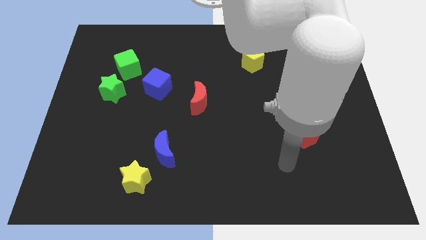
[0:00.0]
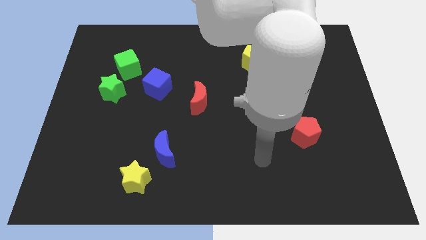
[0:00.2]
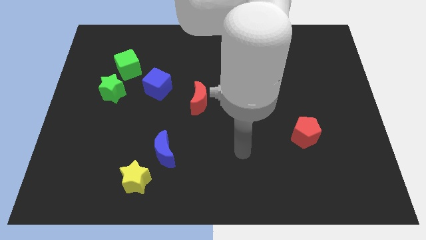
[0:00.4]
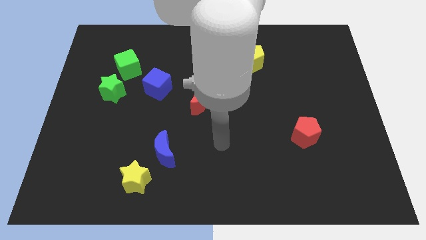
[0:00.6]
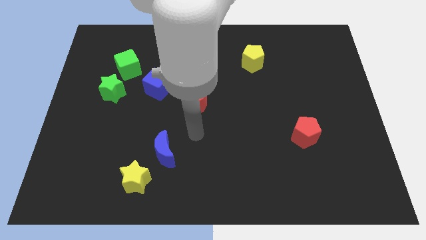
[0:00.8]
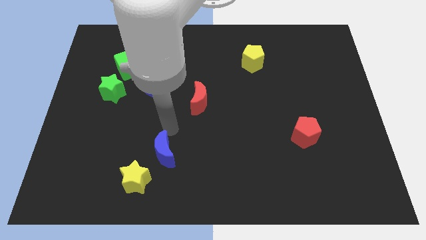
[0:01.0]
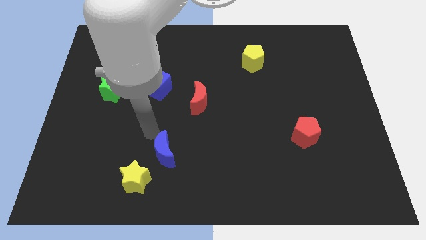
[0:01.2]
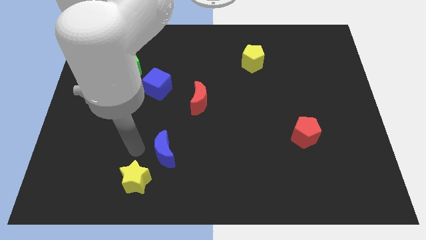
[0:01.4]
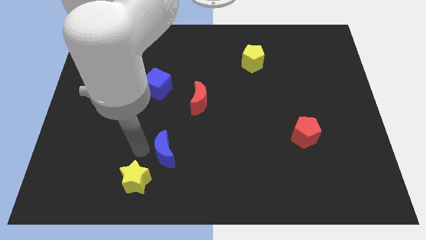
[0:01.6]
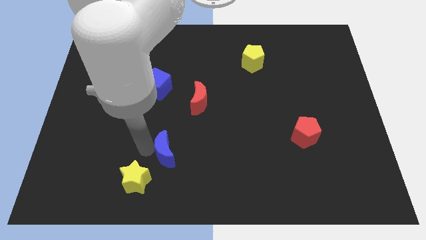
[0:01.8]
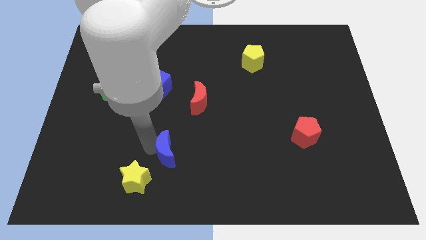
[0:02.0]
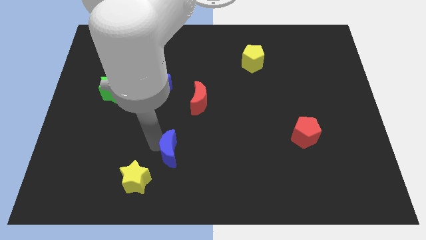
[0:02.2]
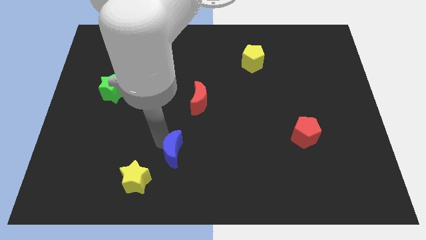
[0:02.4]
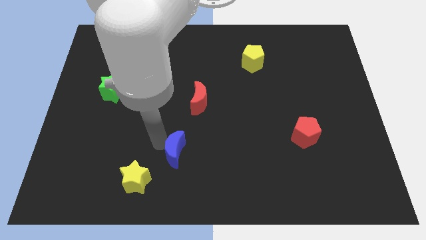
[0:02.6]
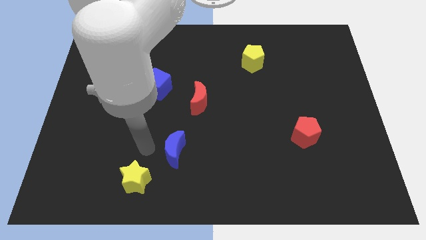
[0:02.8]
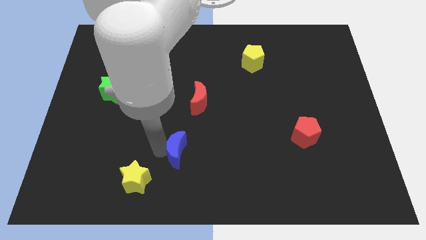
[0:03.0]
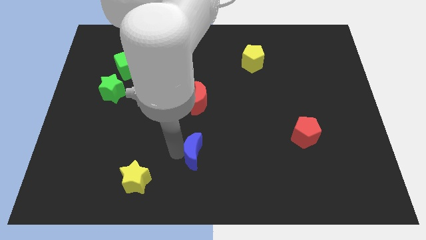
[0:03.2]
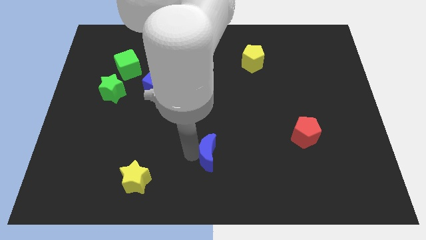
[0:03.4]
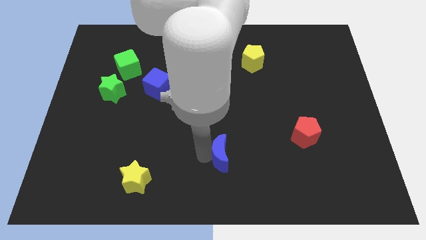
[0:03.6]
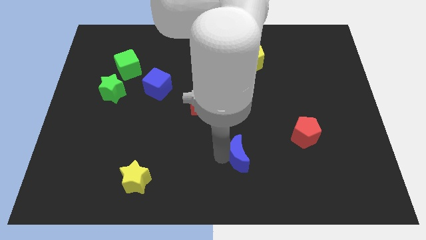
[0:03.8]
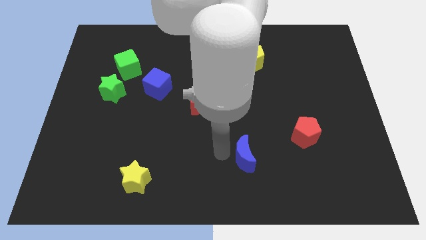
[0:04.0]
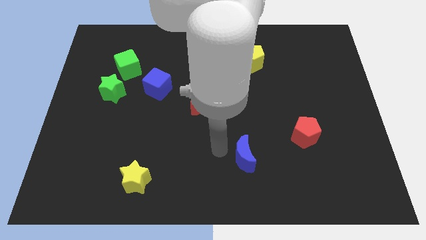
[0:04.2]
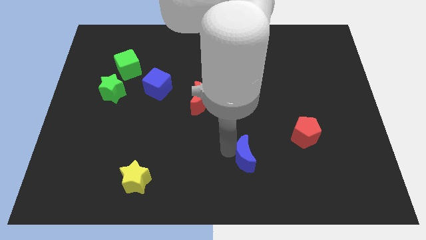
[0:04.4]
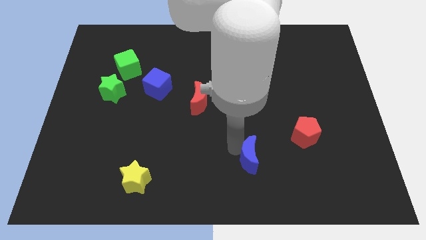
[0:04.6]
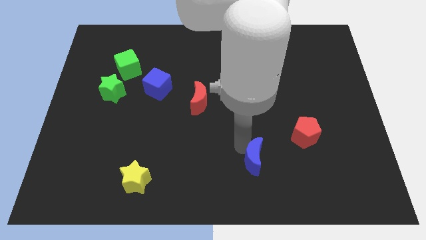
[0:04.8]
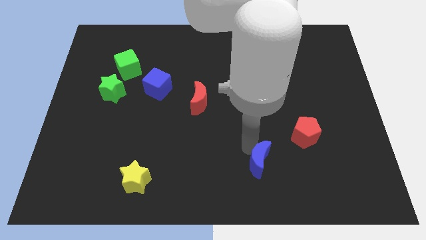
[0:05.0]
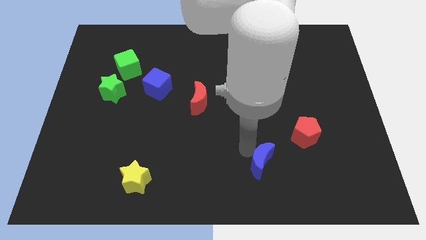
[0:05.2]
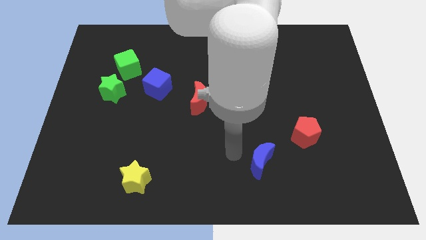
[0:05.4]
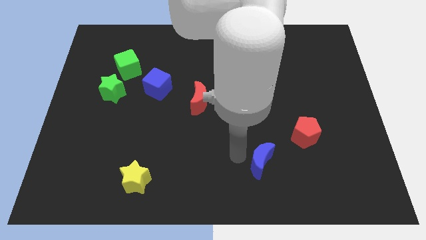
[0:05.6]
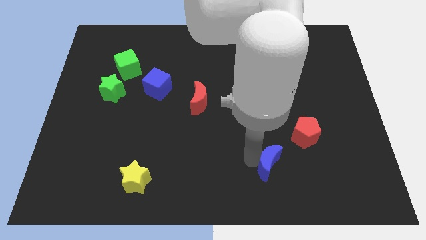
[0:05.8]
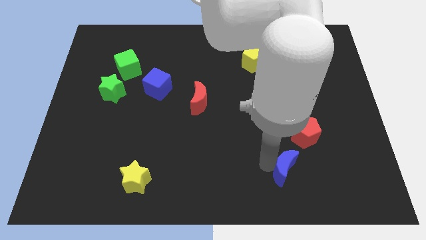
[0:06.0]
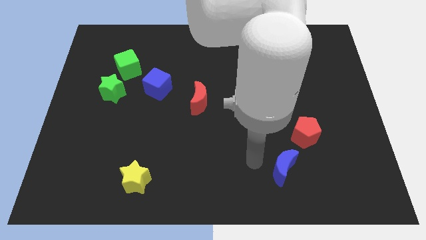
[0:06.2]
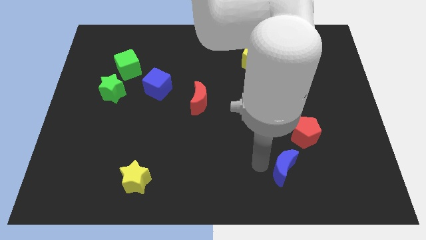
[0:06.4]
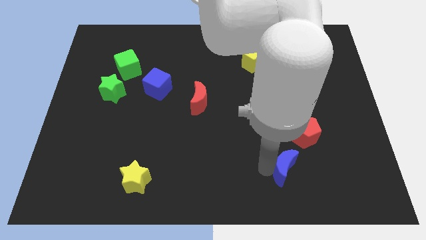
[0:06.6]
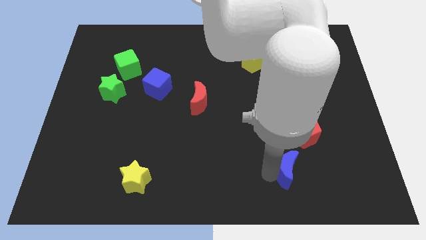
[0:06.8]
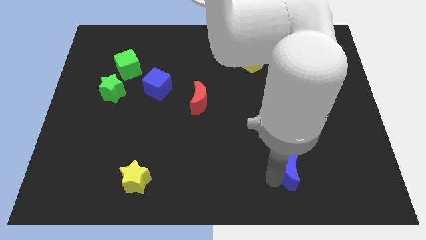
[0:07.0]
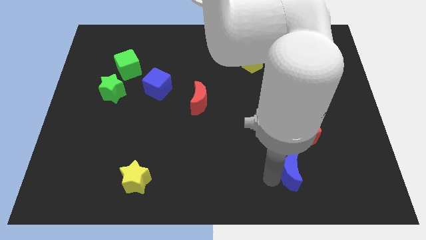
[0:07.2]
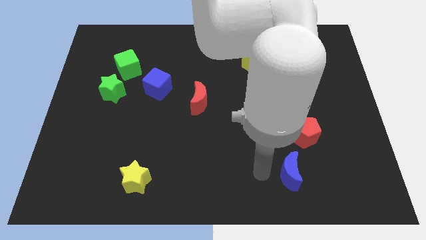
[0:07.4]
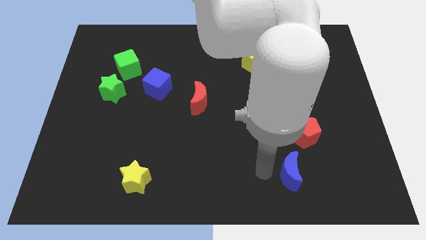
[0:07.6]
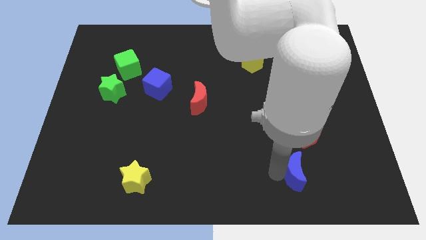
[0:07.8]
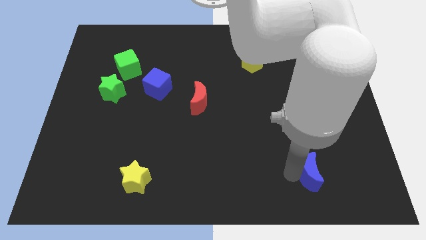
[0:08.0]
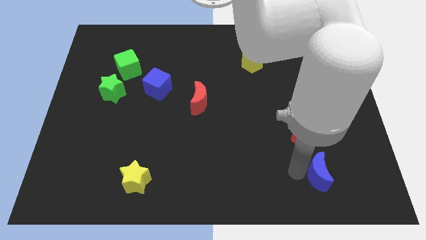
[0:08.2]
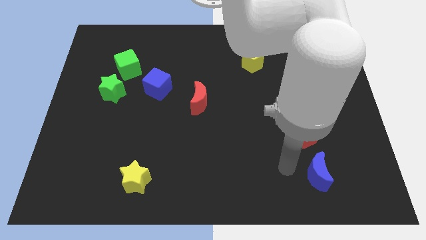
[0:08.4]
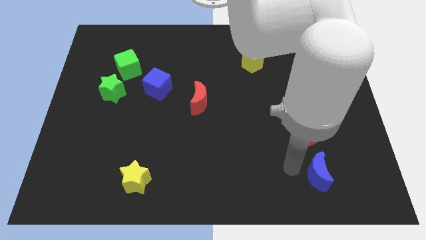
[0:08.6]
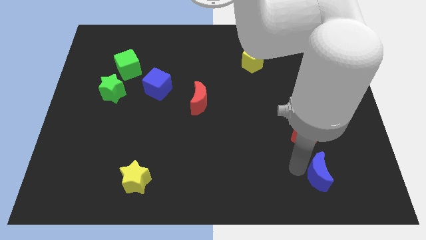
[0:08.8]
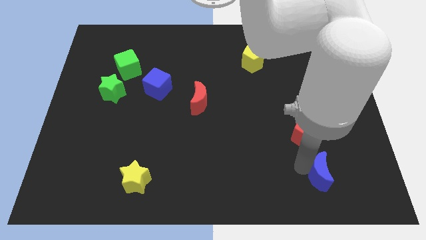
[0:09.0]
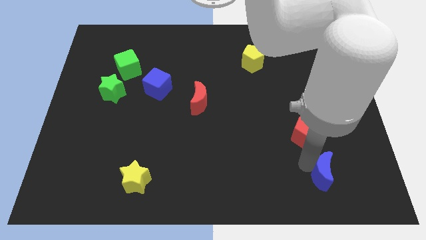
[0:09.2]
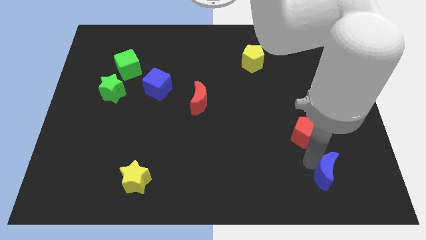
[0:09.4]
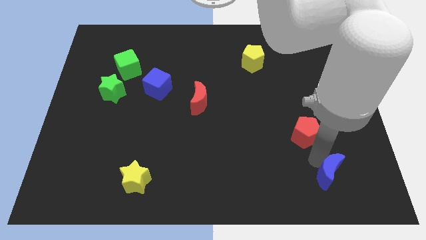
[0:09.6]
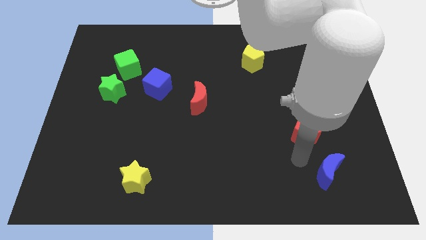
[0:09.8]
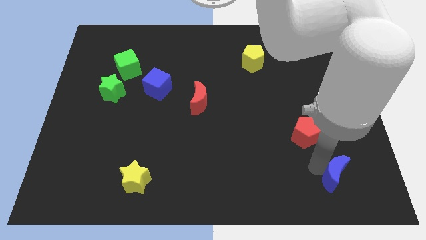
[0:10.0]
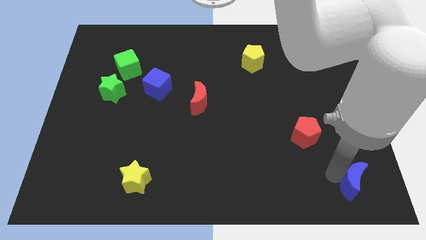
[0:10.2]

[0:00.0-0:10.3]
slide the blue moon to the bottom right of the board

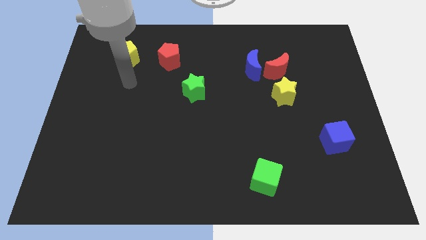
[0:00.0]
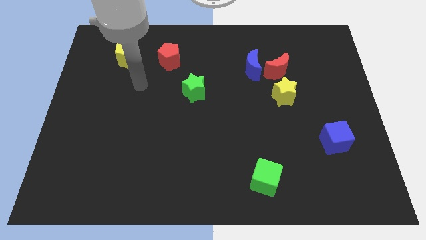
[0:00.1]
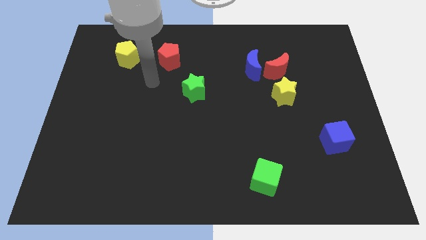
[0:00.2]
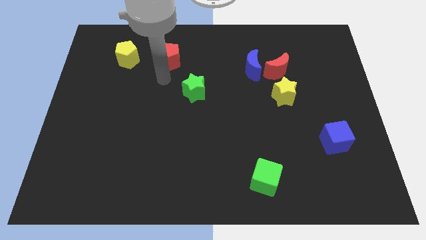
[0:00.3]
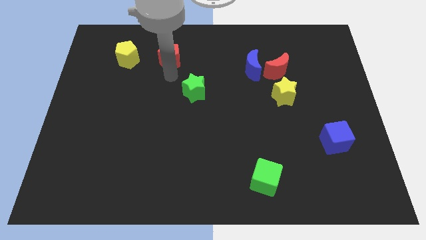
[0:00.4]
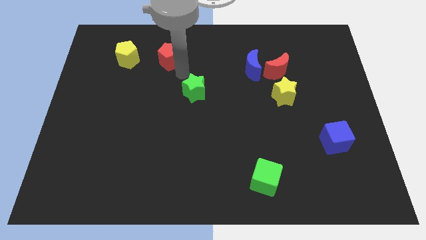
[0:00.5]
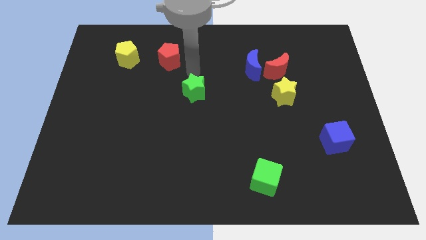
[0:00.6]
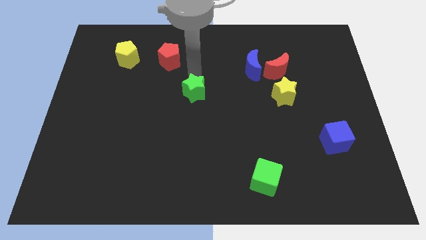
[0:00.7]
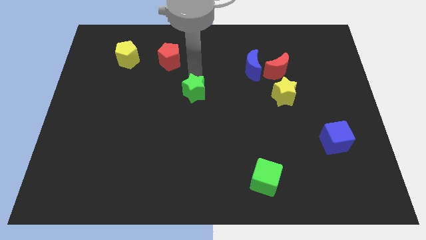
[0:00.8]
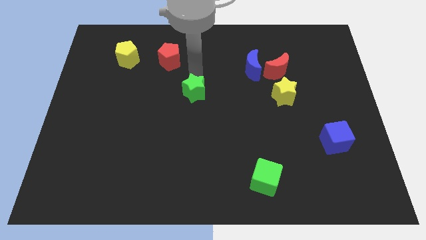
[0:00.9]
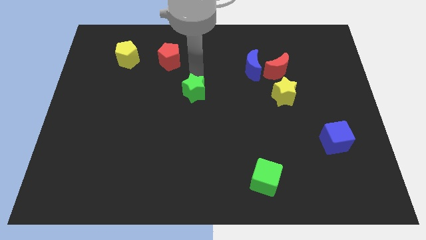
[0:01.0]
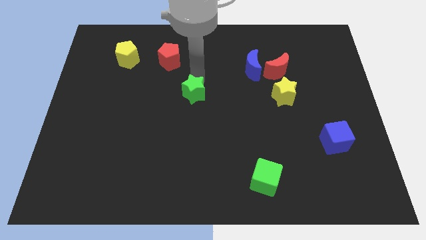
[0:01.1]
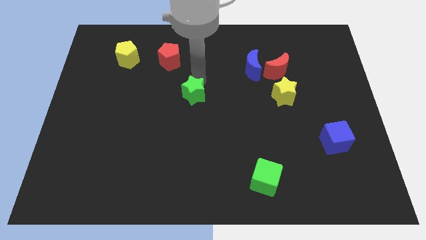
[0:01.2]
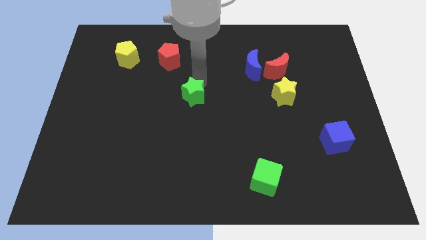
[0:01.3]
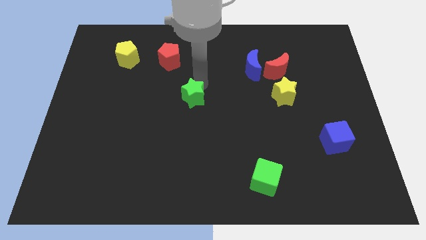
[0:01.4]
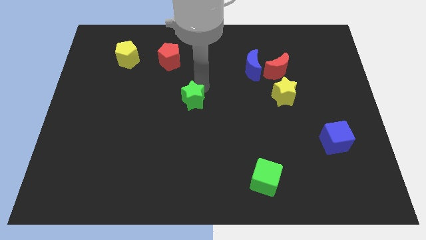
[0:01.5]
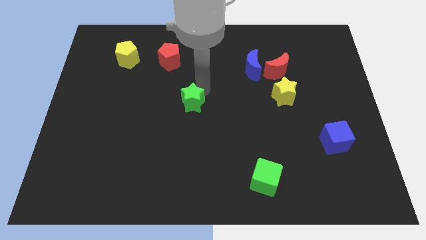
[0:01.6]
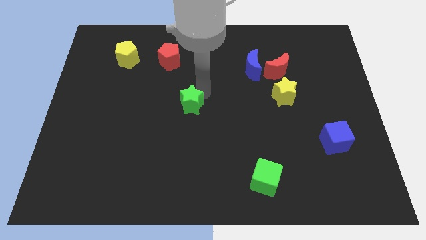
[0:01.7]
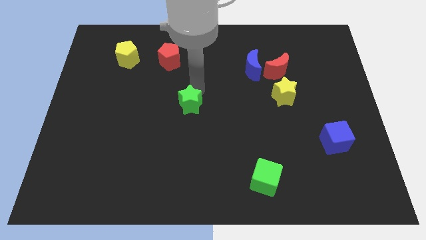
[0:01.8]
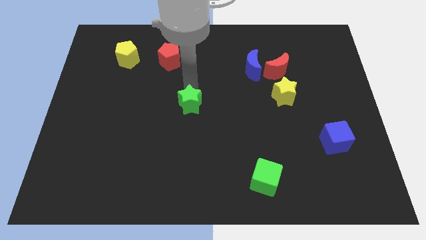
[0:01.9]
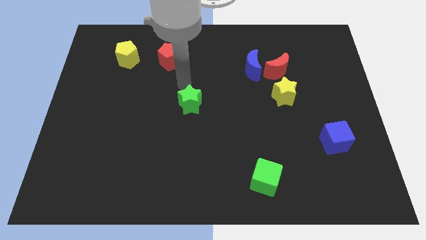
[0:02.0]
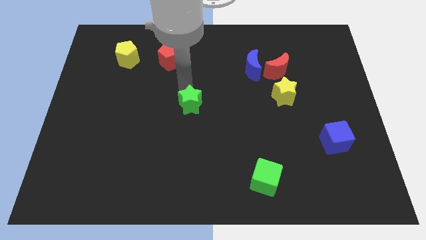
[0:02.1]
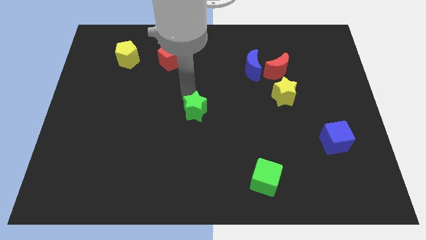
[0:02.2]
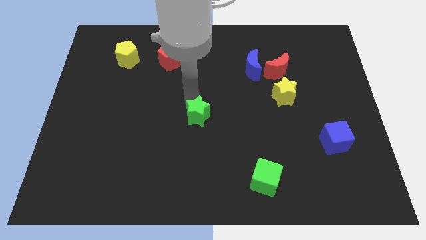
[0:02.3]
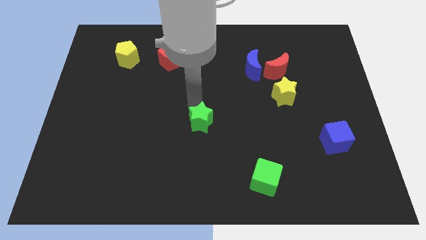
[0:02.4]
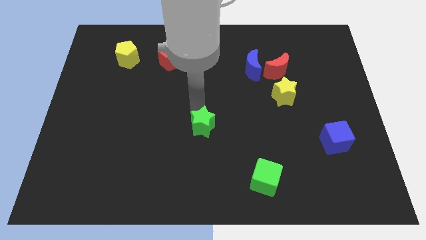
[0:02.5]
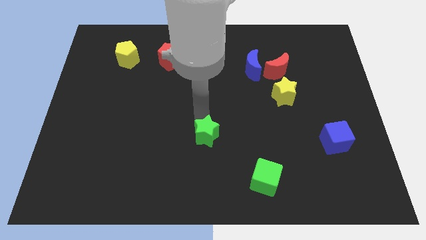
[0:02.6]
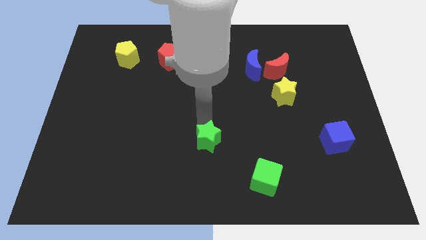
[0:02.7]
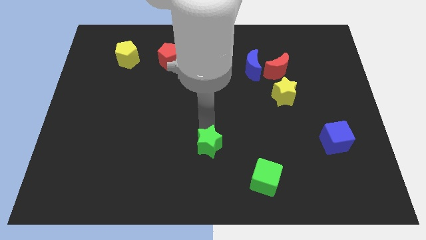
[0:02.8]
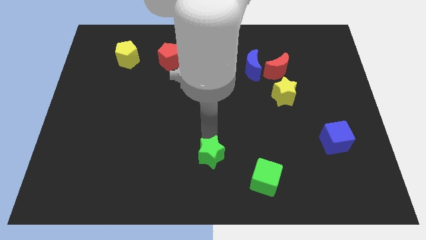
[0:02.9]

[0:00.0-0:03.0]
push the green star to the bottom
